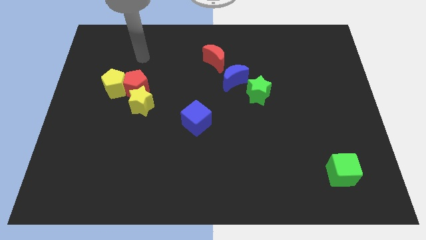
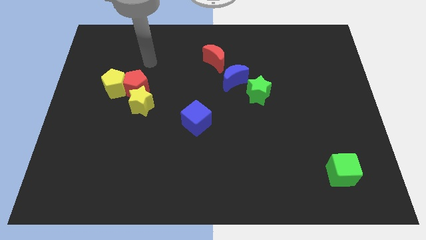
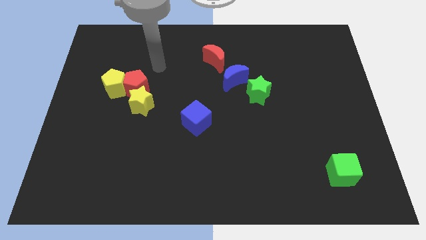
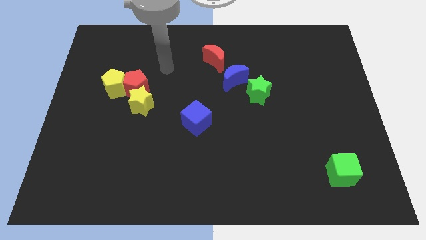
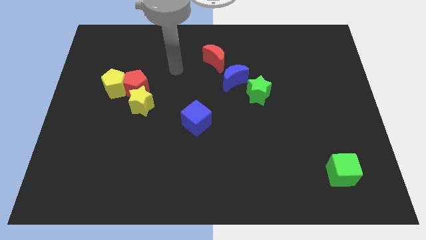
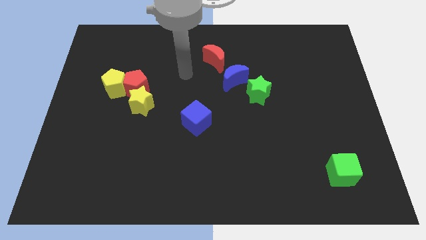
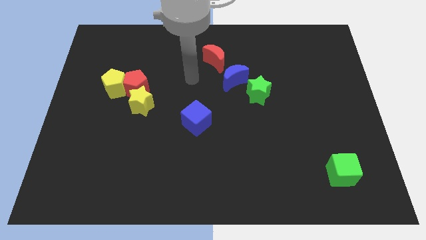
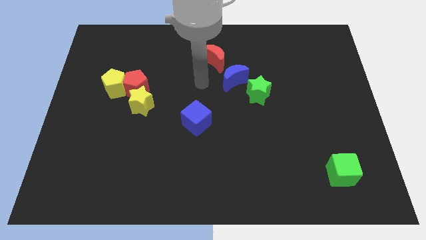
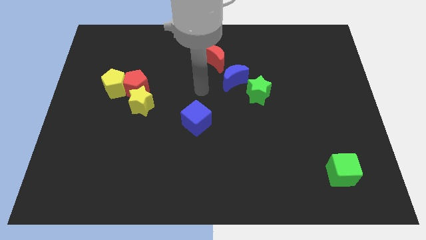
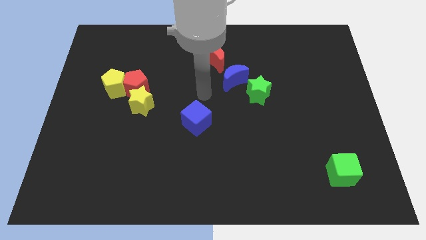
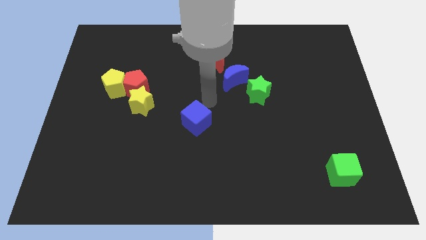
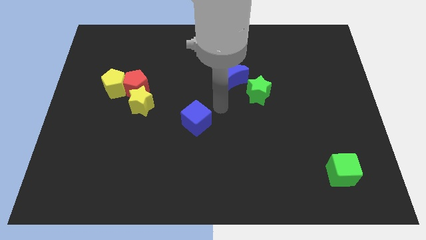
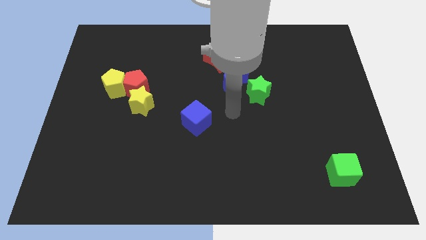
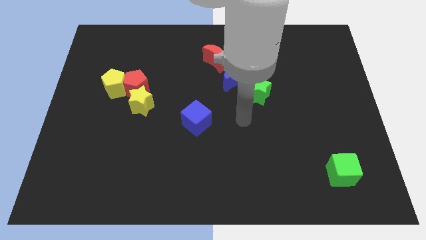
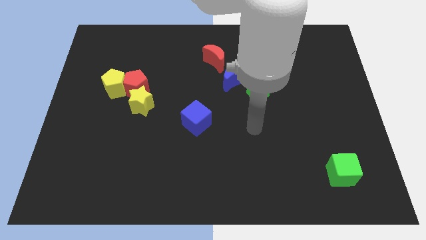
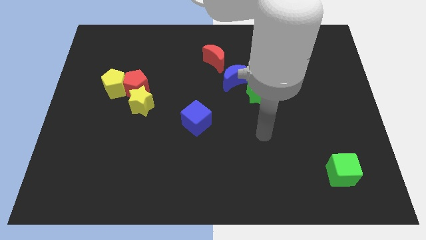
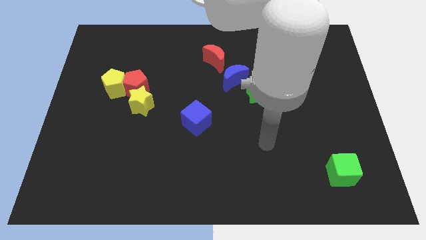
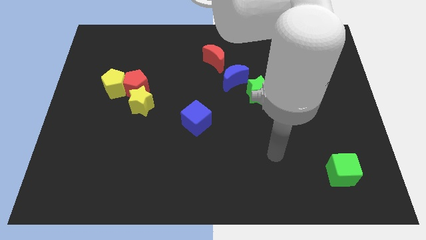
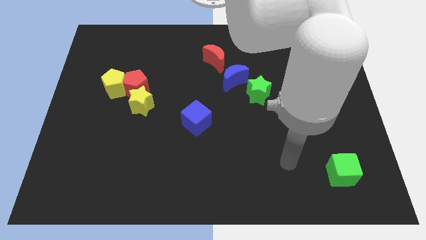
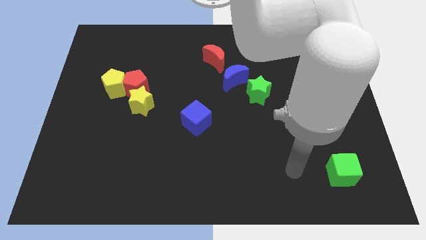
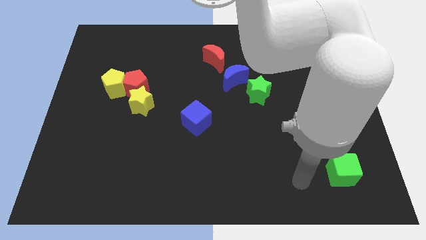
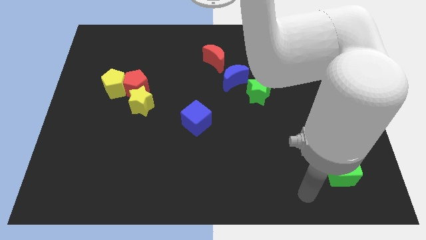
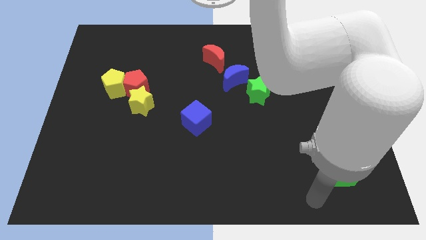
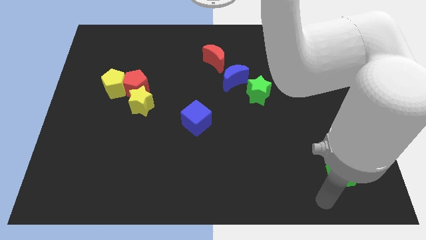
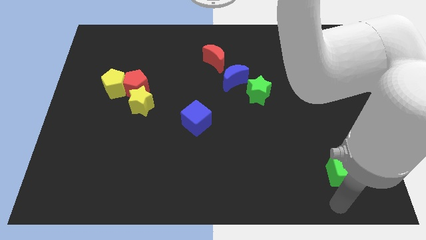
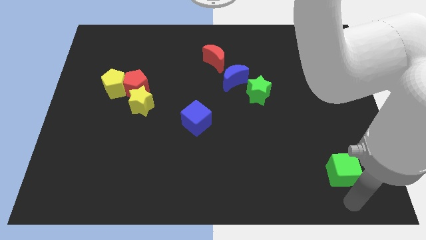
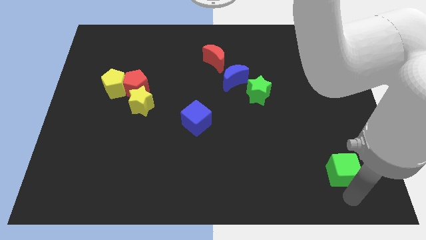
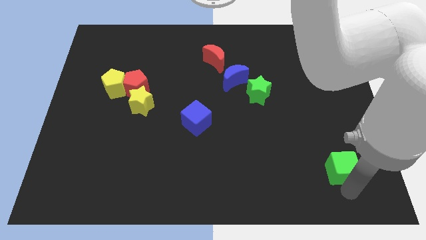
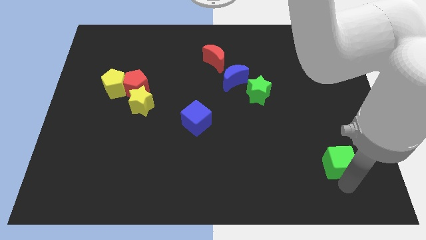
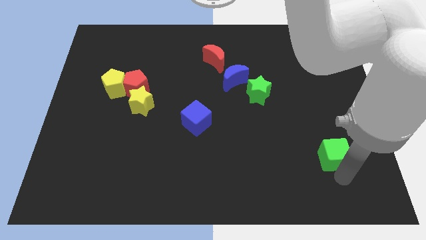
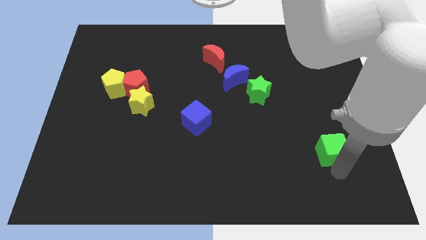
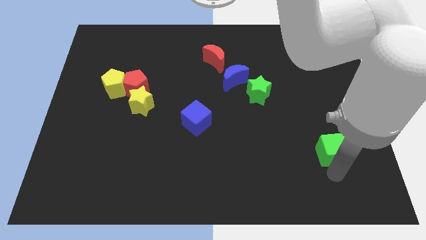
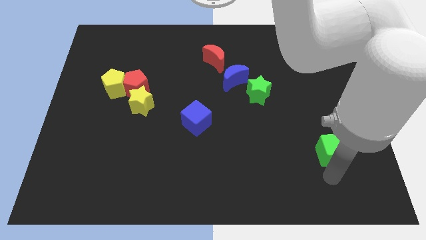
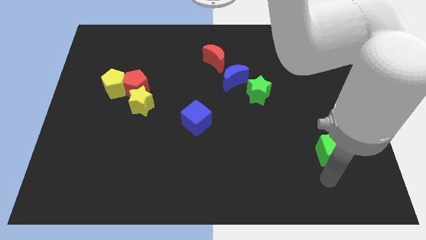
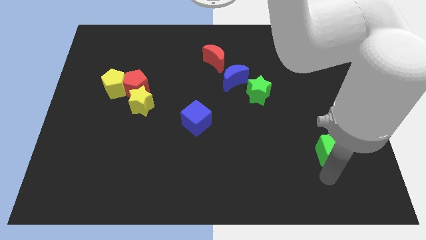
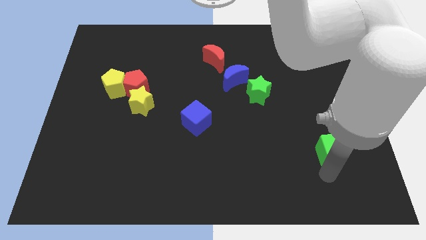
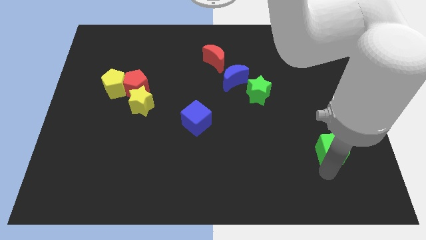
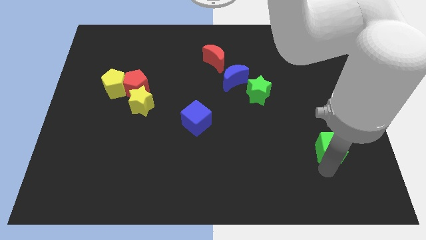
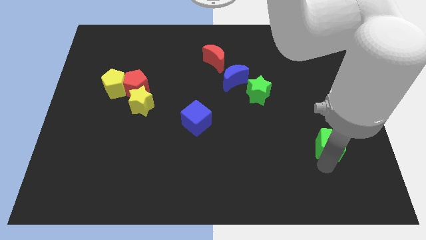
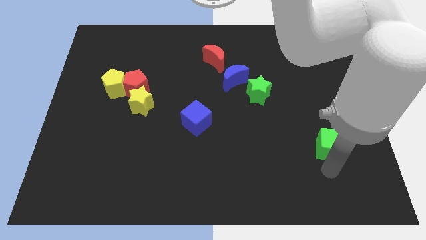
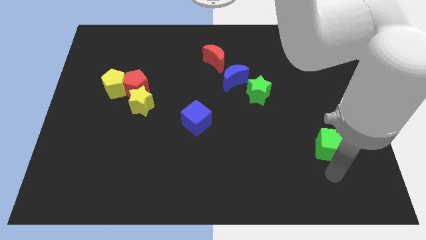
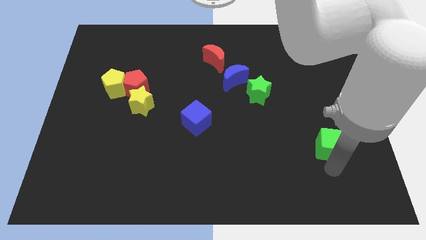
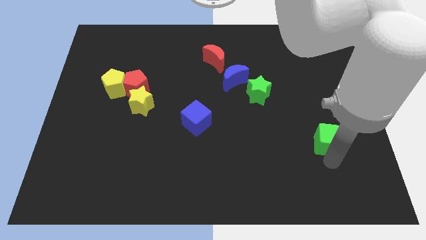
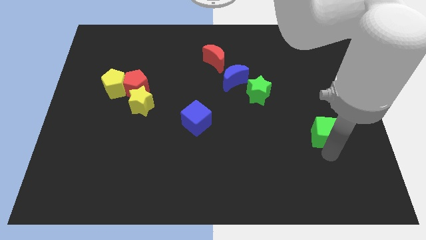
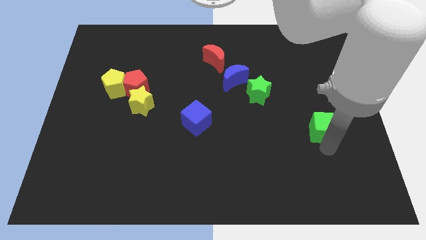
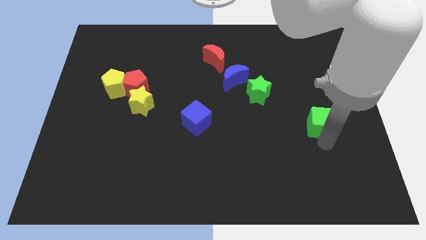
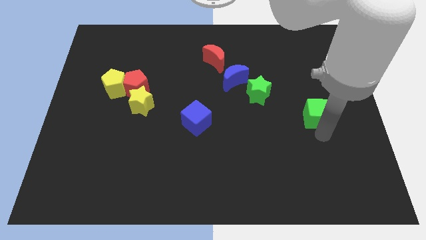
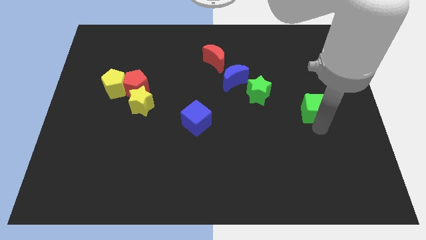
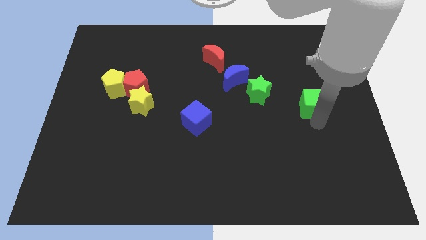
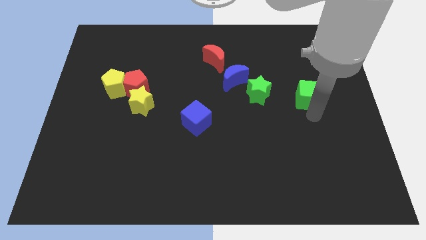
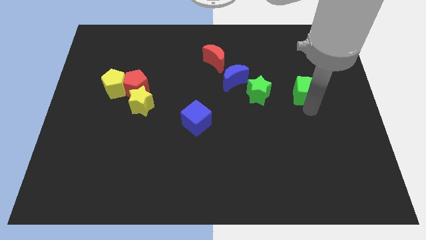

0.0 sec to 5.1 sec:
slide the green cube up

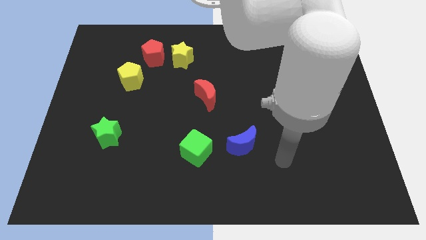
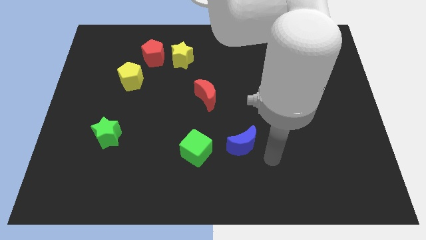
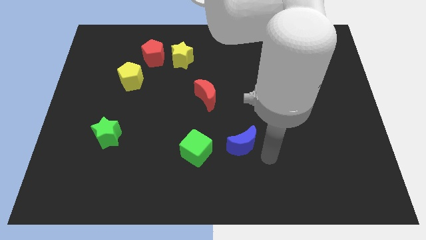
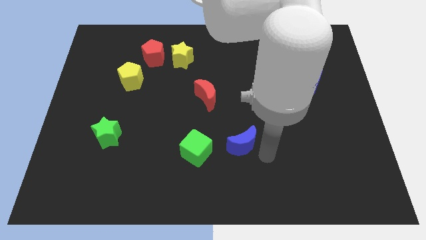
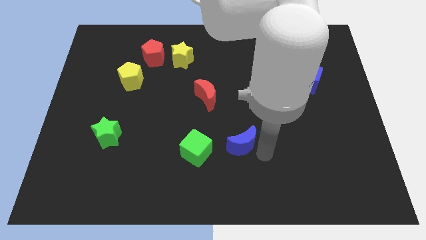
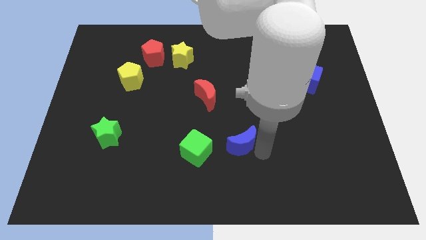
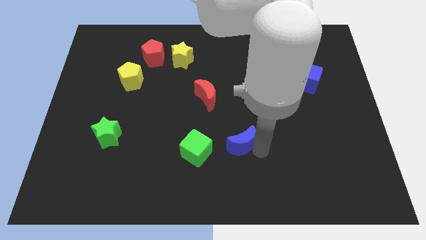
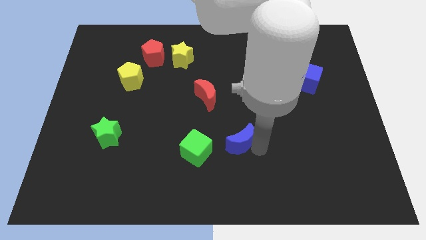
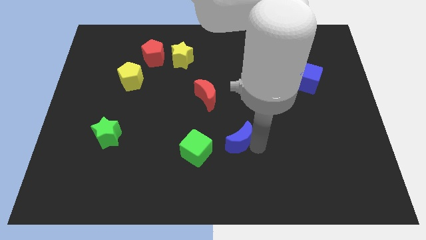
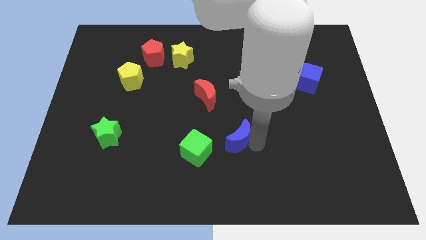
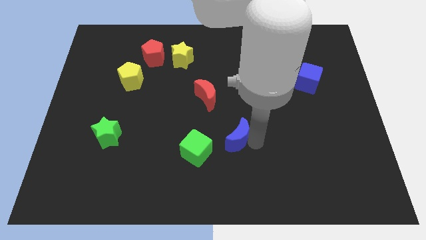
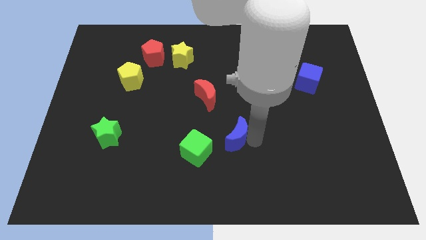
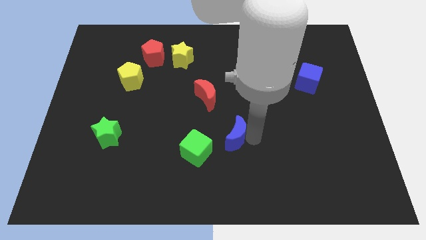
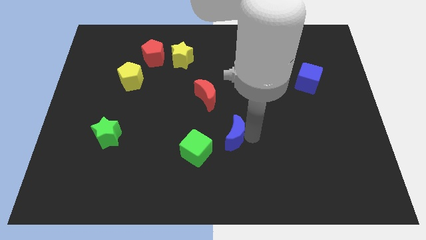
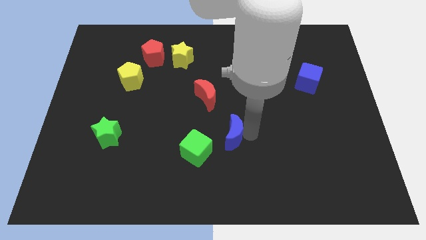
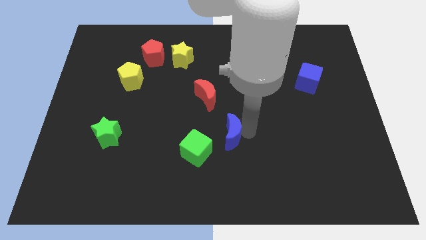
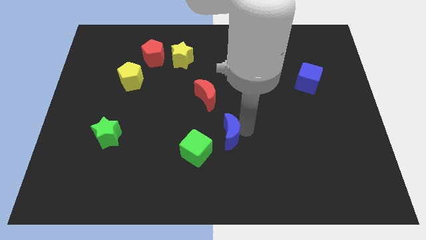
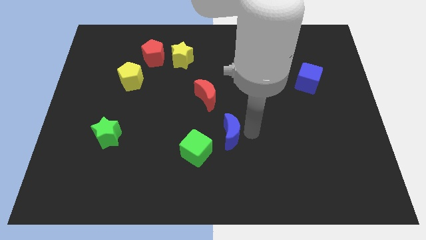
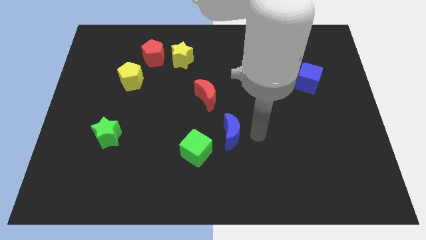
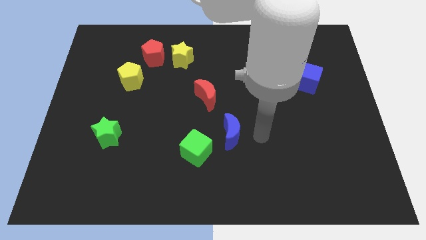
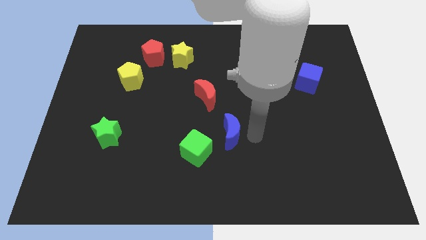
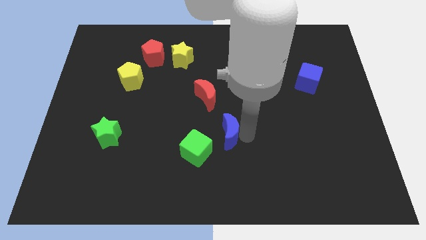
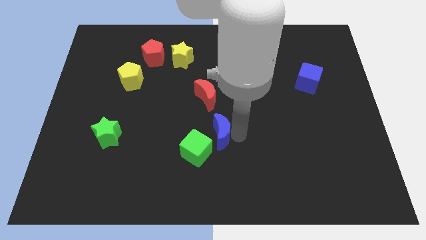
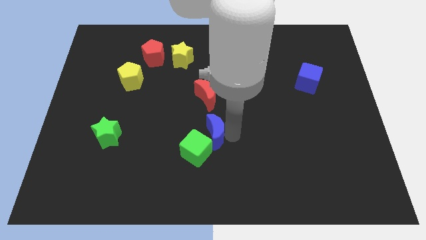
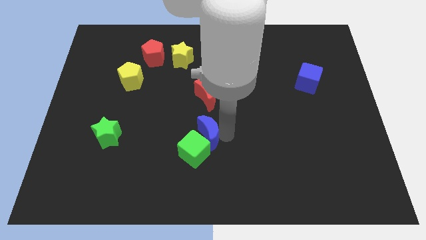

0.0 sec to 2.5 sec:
slightly push the blue moon to the left
